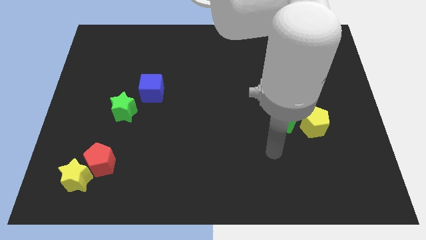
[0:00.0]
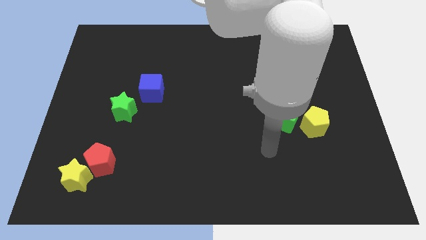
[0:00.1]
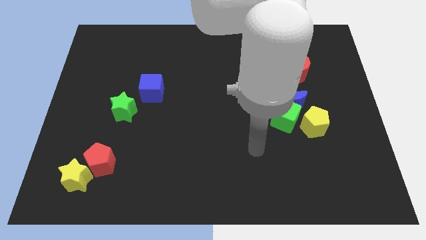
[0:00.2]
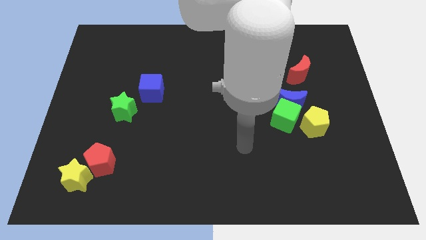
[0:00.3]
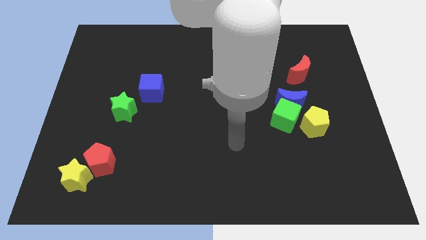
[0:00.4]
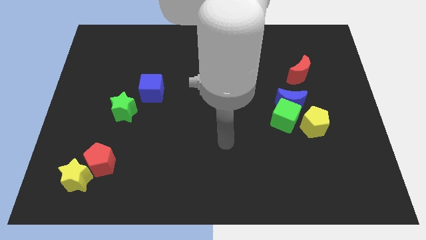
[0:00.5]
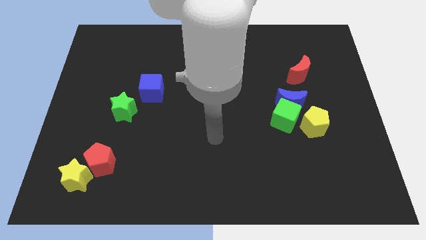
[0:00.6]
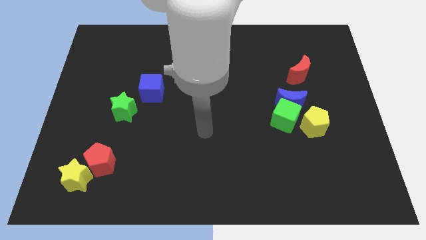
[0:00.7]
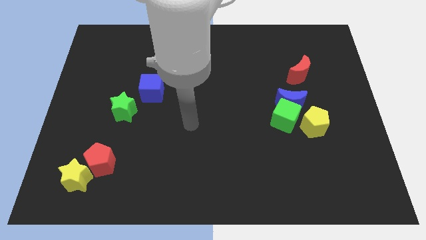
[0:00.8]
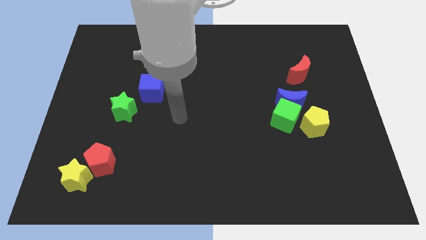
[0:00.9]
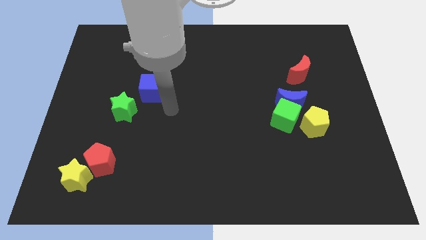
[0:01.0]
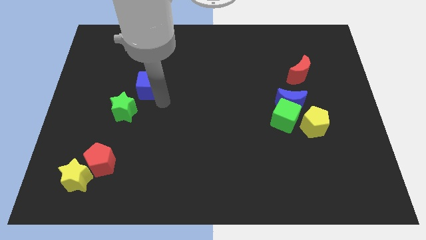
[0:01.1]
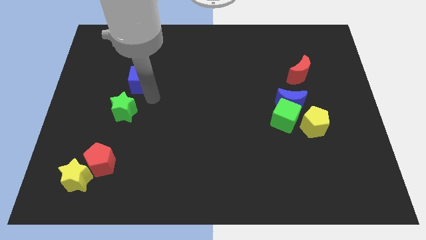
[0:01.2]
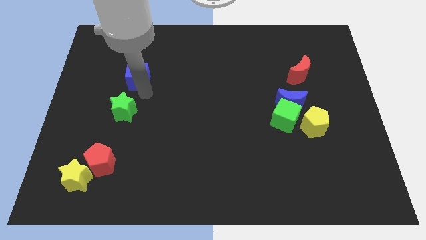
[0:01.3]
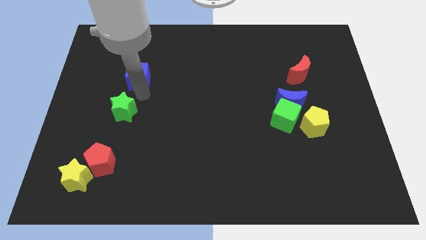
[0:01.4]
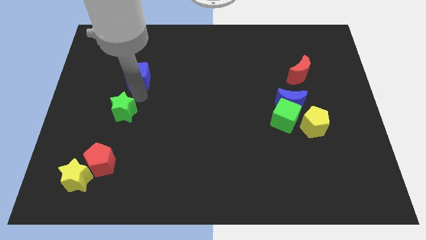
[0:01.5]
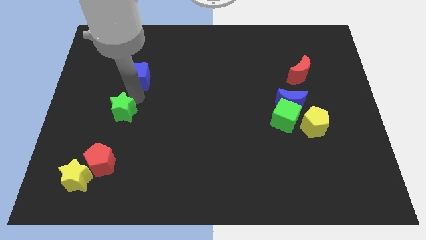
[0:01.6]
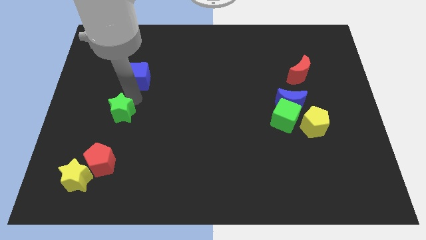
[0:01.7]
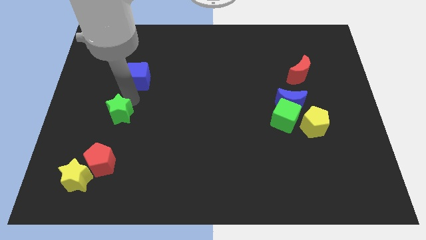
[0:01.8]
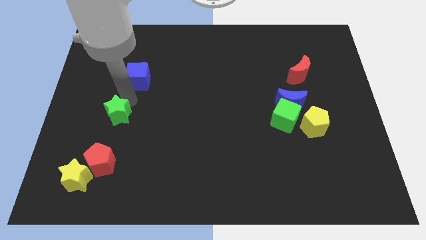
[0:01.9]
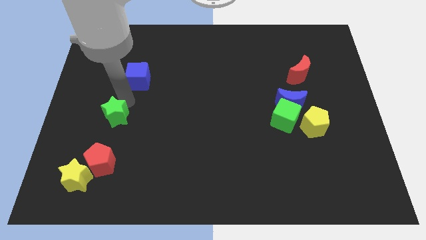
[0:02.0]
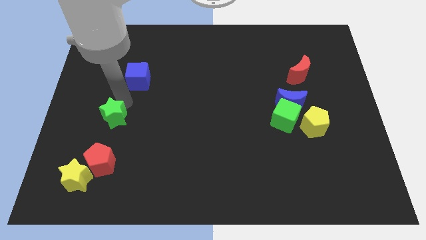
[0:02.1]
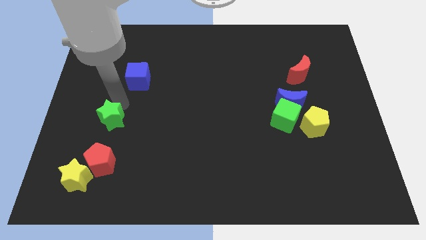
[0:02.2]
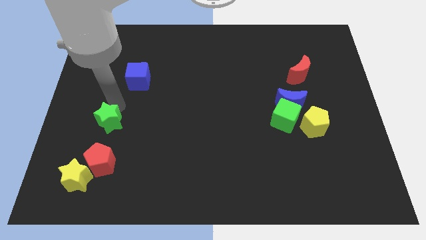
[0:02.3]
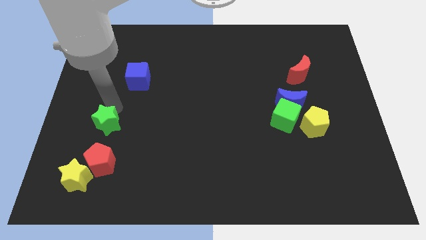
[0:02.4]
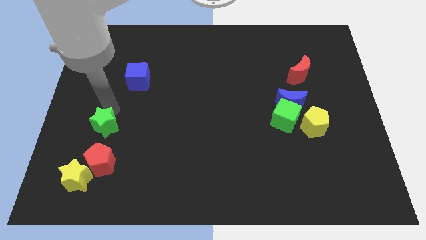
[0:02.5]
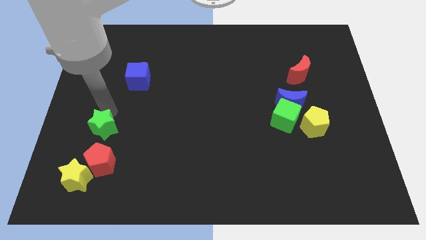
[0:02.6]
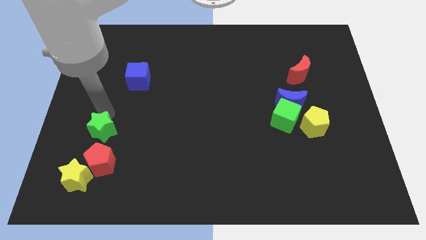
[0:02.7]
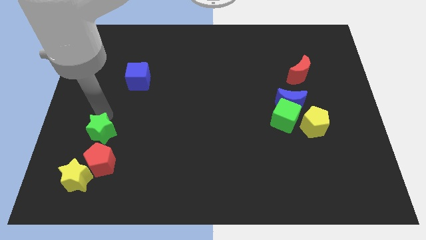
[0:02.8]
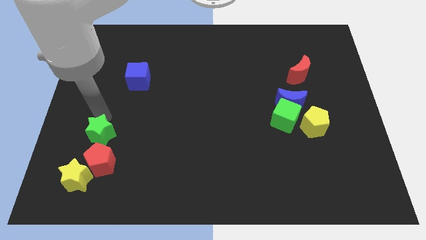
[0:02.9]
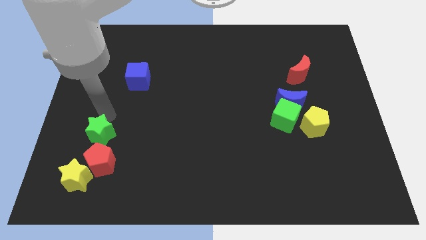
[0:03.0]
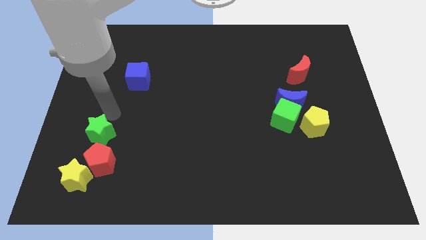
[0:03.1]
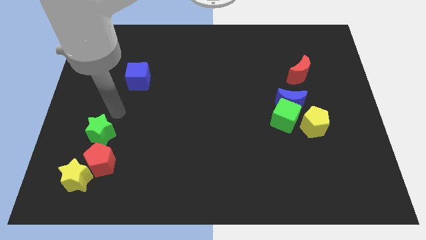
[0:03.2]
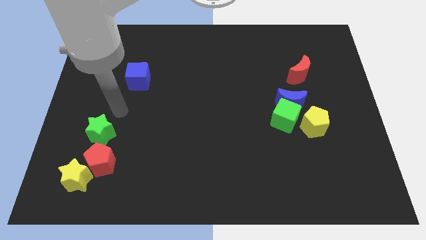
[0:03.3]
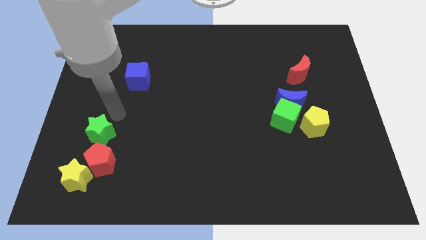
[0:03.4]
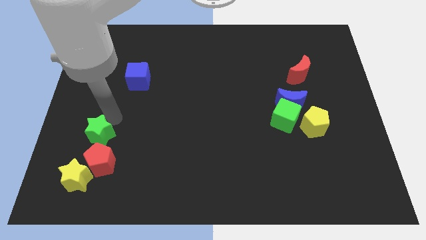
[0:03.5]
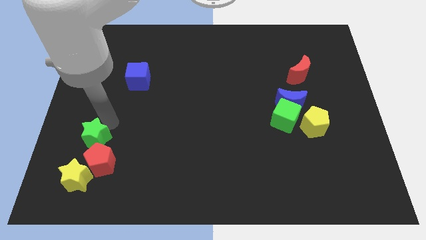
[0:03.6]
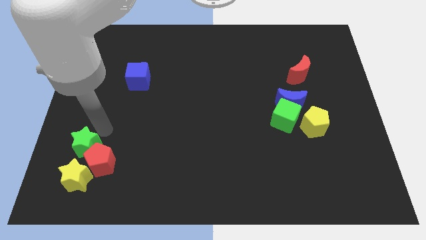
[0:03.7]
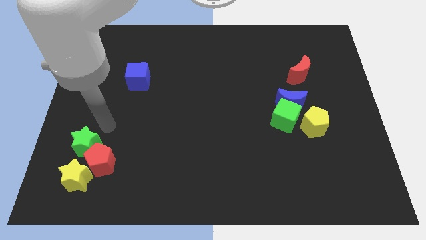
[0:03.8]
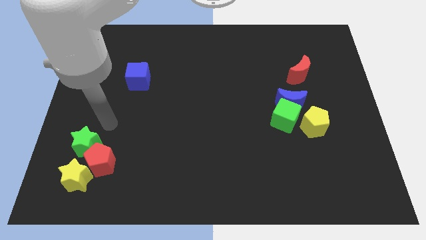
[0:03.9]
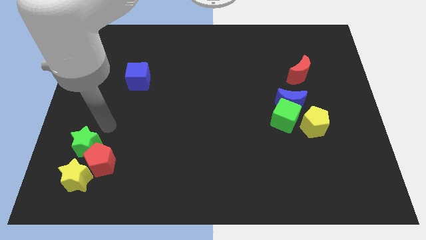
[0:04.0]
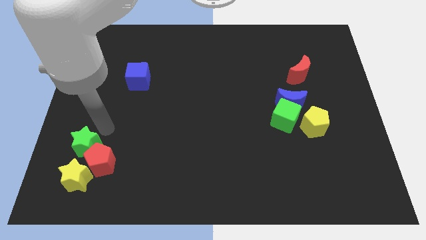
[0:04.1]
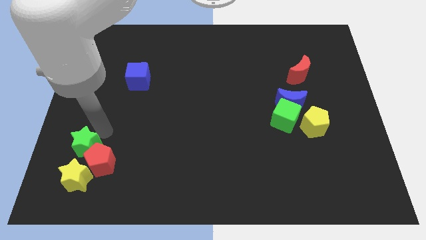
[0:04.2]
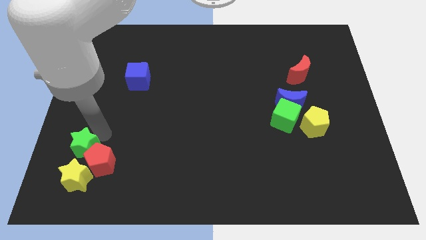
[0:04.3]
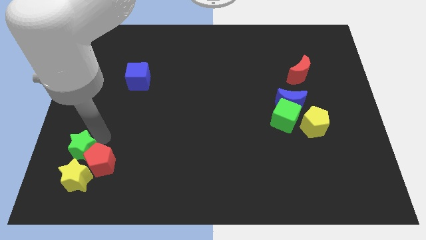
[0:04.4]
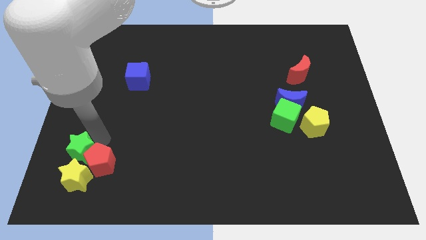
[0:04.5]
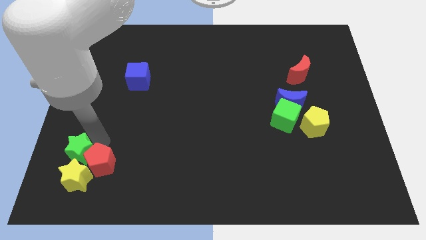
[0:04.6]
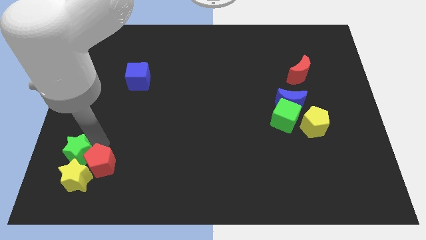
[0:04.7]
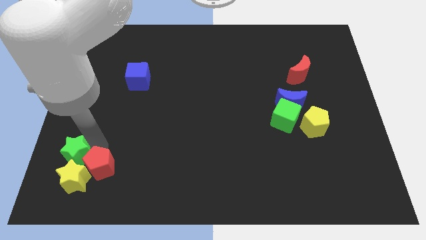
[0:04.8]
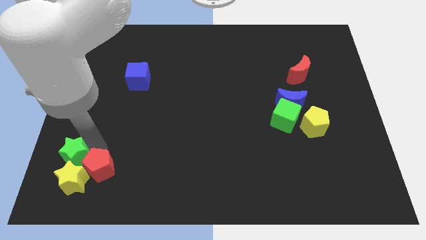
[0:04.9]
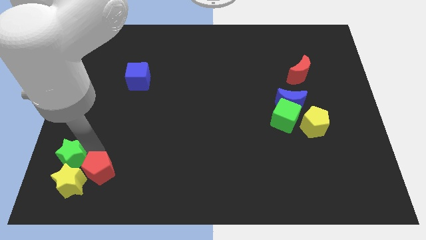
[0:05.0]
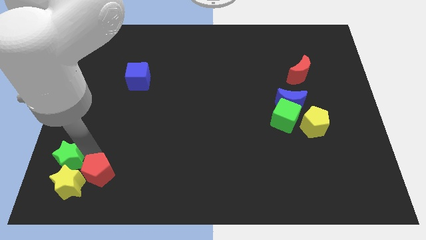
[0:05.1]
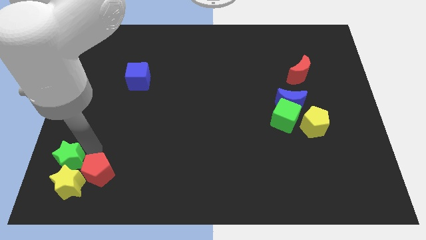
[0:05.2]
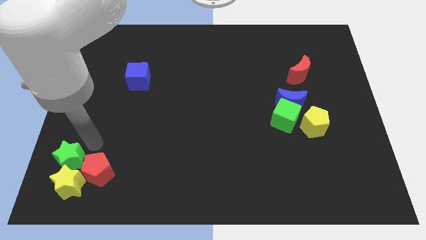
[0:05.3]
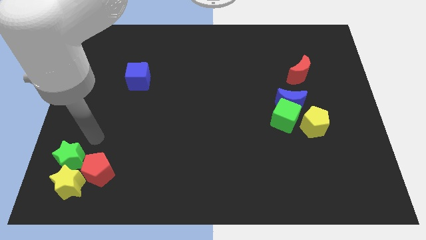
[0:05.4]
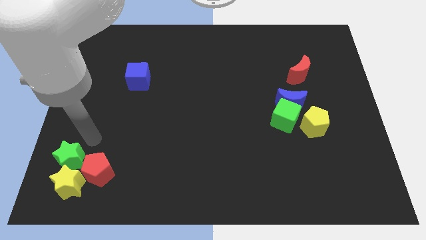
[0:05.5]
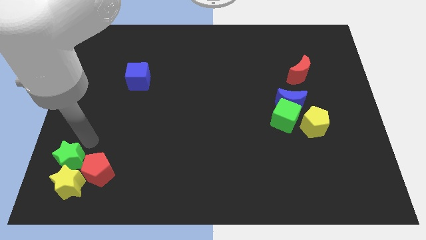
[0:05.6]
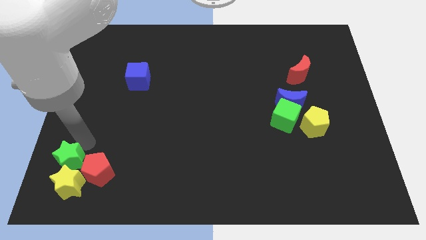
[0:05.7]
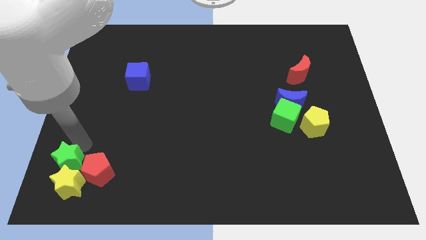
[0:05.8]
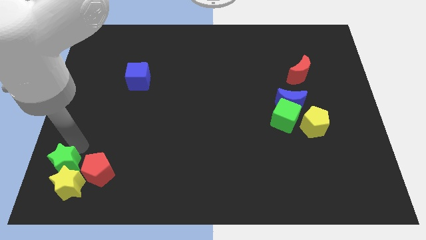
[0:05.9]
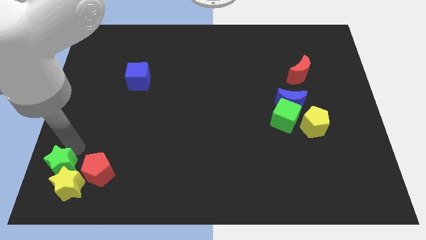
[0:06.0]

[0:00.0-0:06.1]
put the green star to the lower left corner

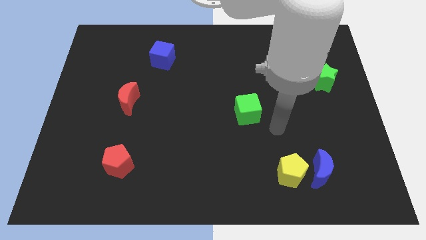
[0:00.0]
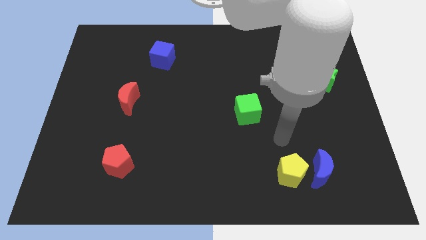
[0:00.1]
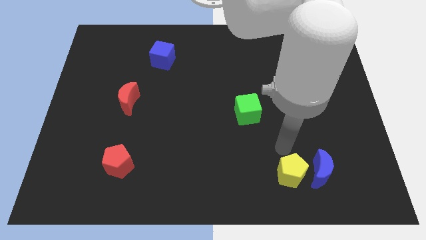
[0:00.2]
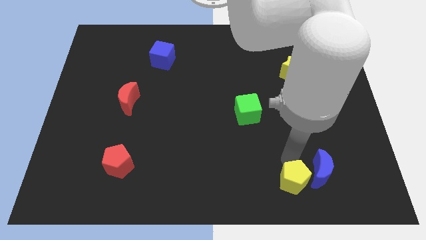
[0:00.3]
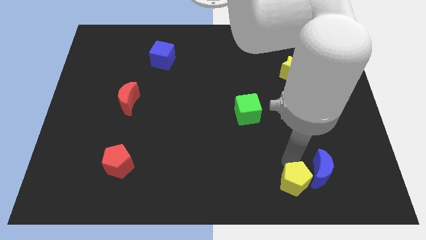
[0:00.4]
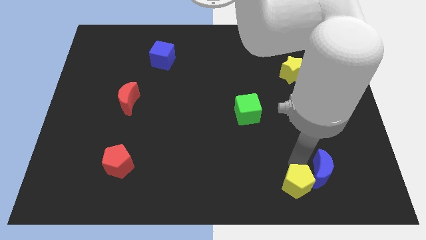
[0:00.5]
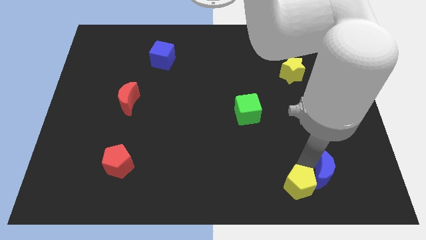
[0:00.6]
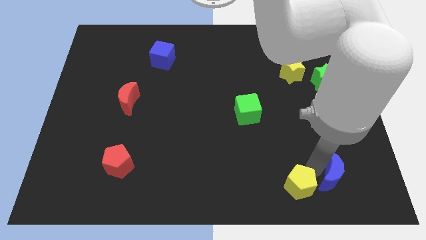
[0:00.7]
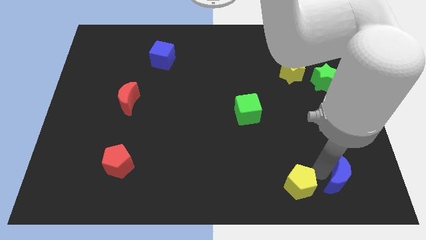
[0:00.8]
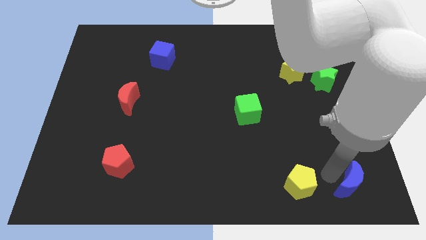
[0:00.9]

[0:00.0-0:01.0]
put the blue moon to the lower right corner
